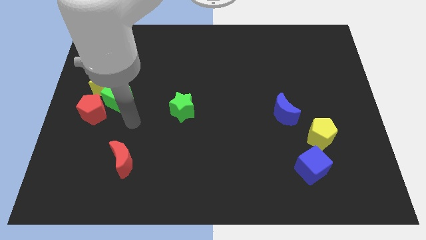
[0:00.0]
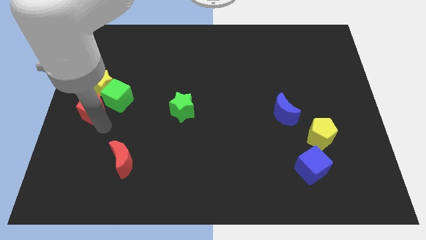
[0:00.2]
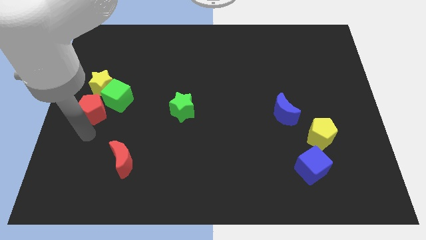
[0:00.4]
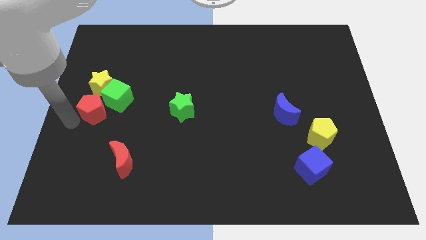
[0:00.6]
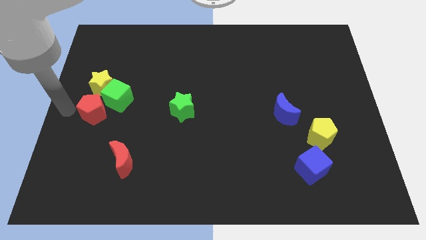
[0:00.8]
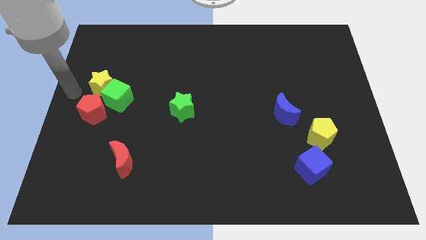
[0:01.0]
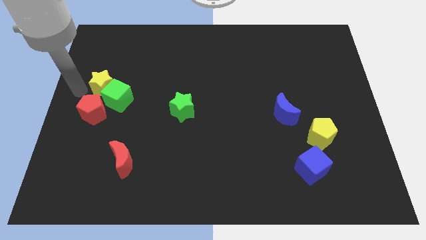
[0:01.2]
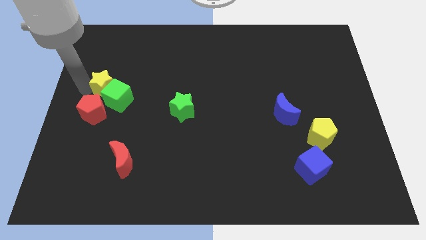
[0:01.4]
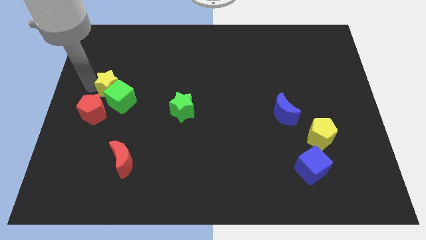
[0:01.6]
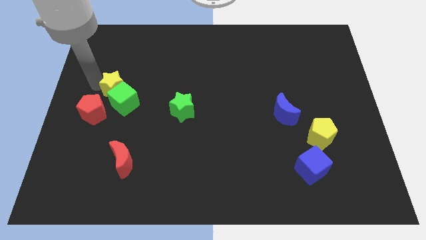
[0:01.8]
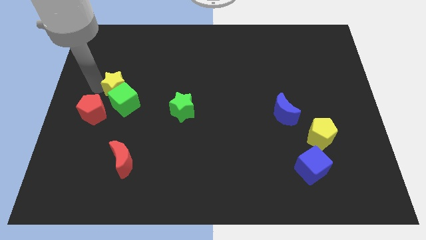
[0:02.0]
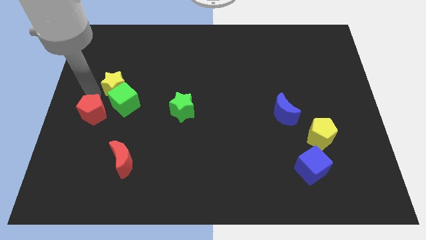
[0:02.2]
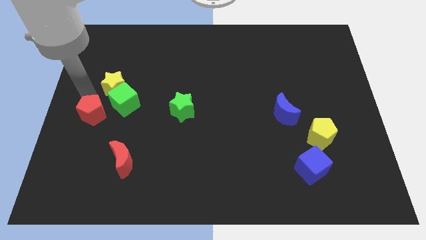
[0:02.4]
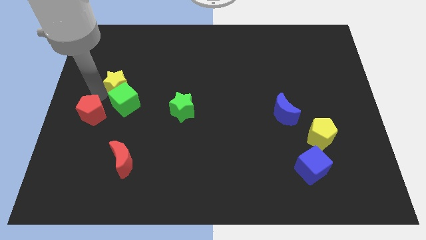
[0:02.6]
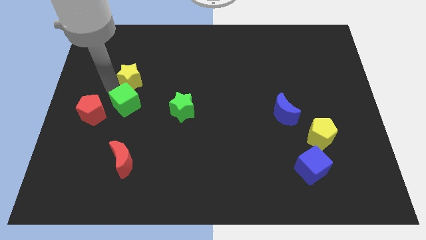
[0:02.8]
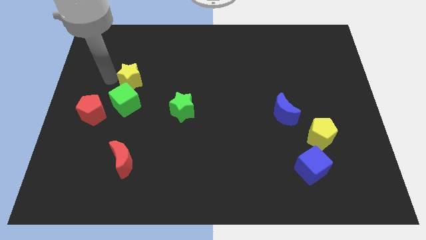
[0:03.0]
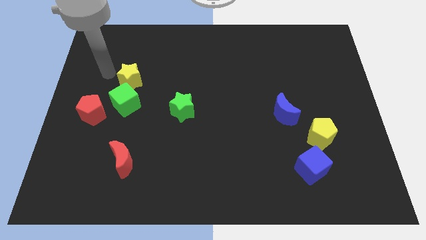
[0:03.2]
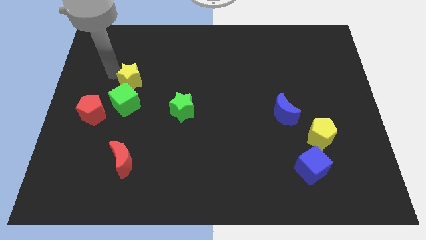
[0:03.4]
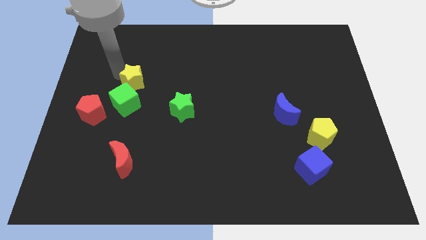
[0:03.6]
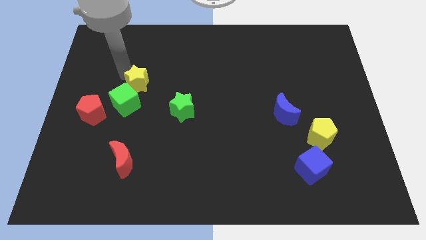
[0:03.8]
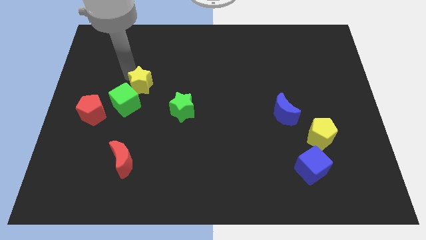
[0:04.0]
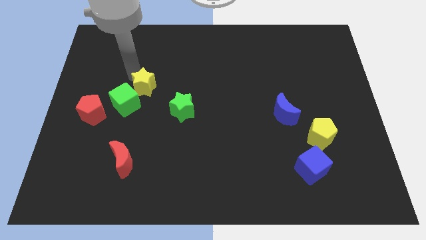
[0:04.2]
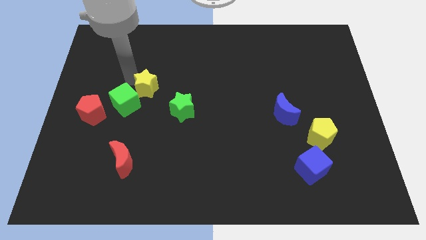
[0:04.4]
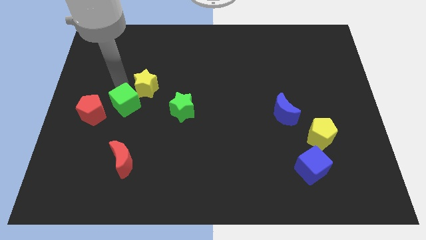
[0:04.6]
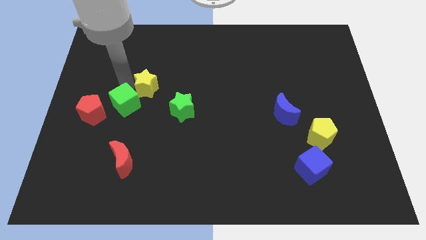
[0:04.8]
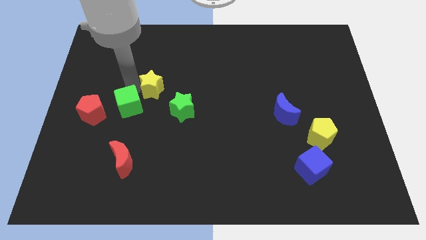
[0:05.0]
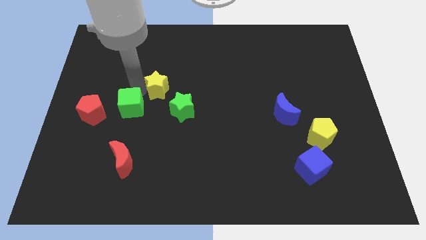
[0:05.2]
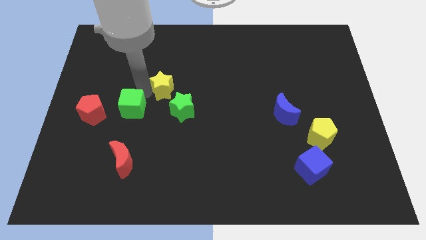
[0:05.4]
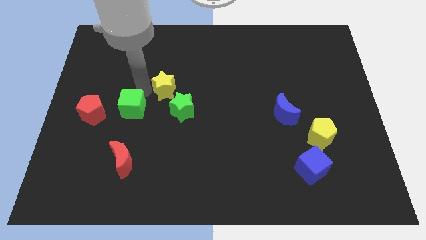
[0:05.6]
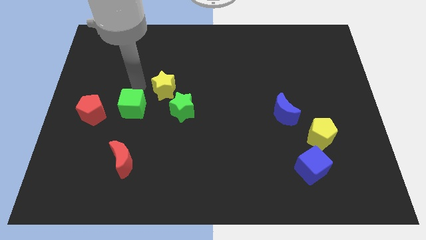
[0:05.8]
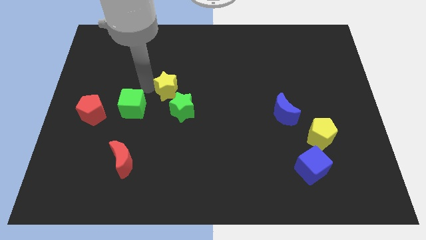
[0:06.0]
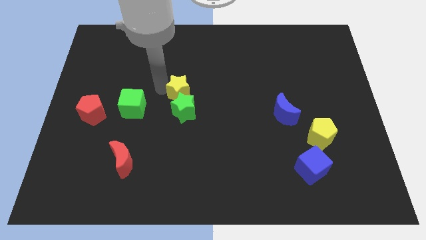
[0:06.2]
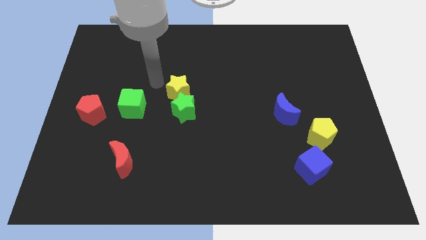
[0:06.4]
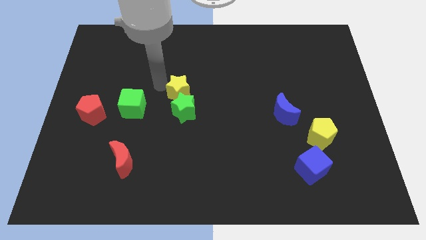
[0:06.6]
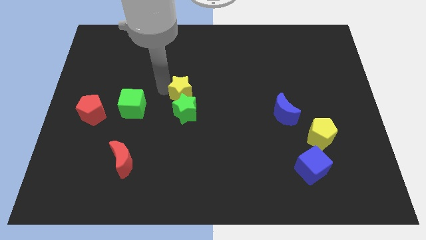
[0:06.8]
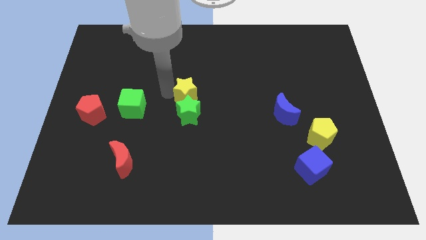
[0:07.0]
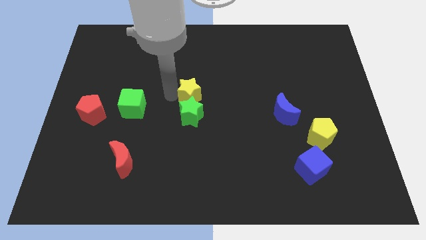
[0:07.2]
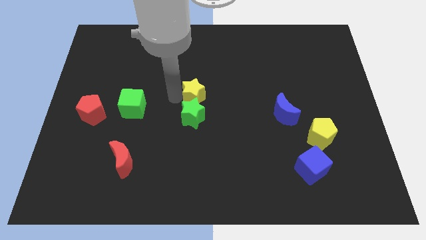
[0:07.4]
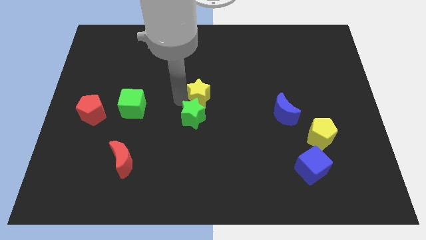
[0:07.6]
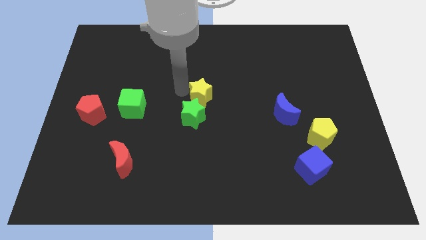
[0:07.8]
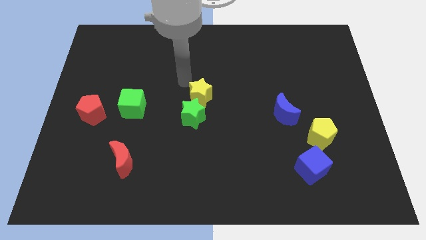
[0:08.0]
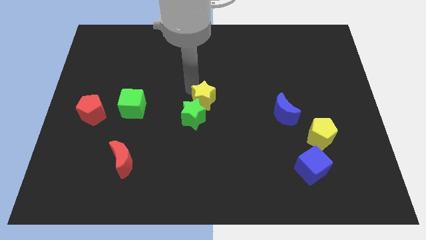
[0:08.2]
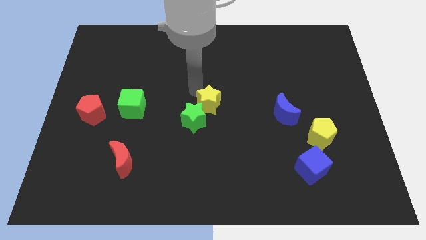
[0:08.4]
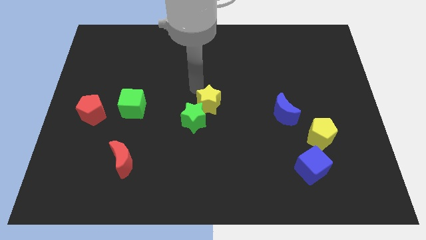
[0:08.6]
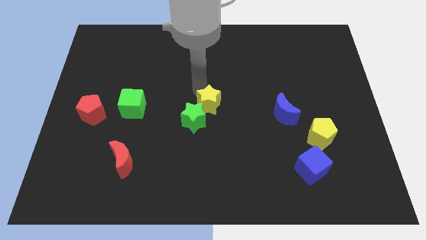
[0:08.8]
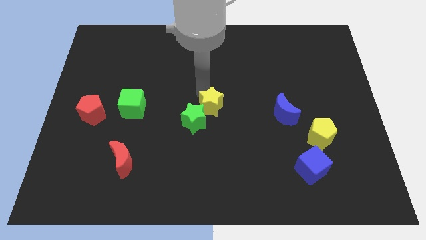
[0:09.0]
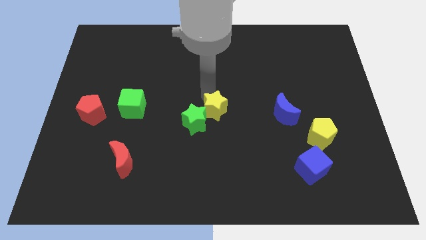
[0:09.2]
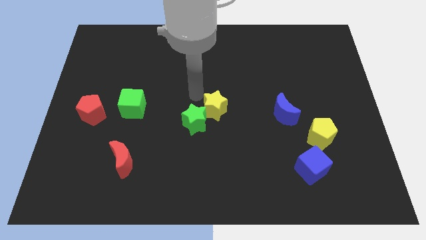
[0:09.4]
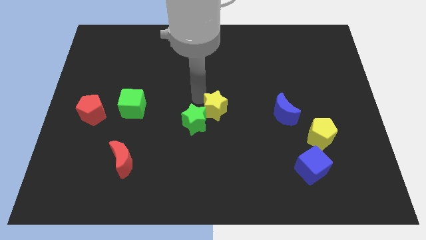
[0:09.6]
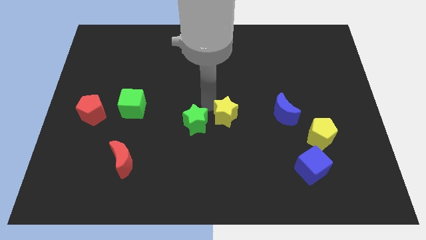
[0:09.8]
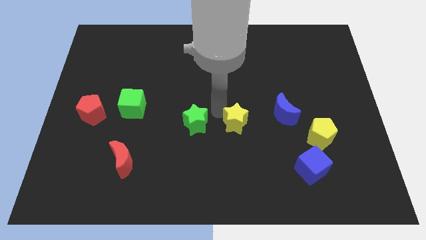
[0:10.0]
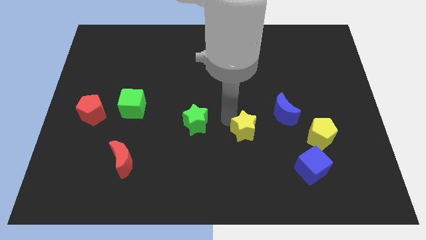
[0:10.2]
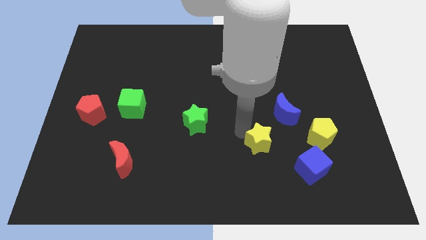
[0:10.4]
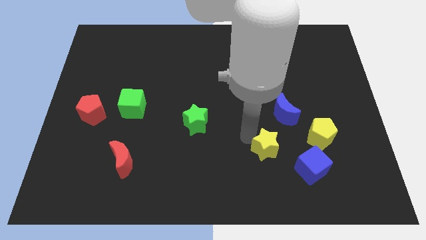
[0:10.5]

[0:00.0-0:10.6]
push the yellow star below the blue moon

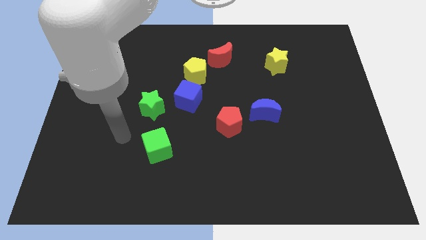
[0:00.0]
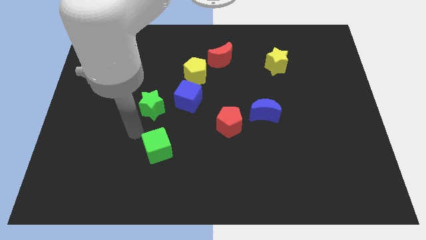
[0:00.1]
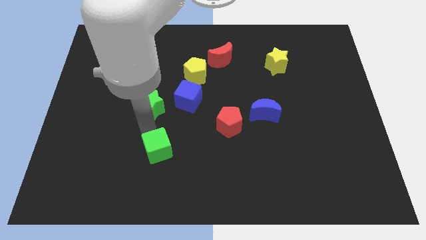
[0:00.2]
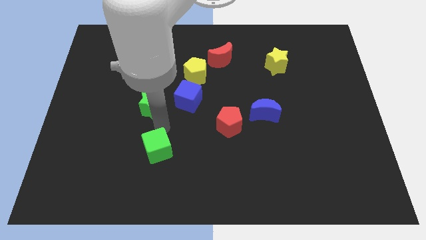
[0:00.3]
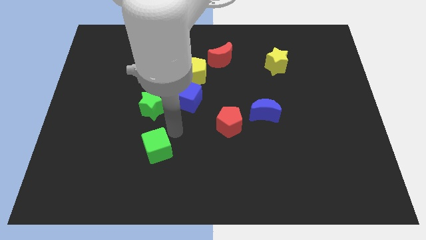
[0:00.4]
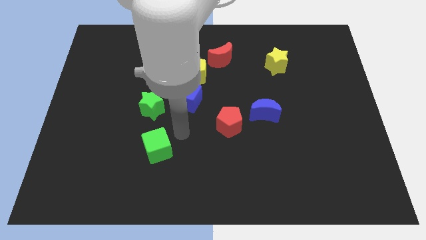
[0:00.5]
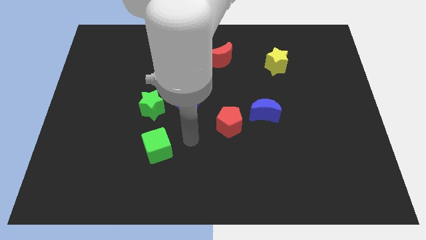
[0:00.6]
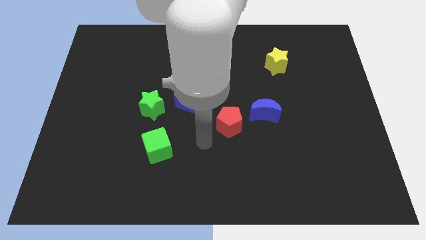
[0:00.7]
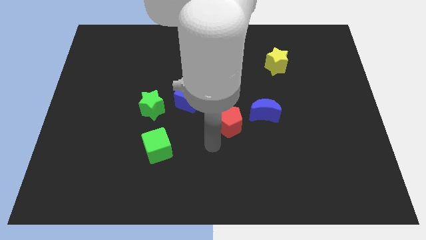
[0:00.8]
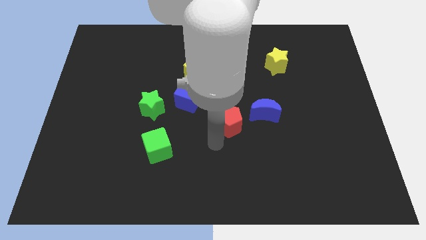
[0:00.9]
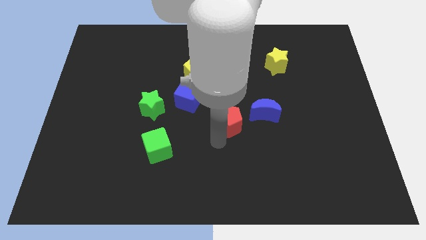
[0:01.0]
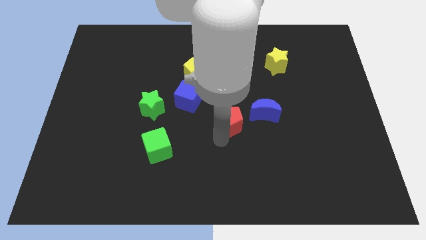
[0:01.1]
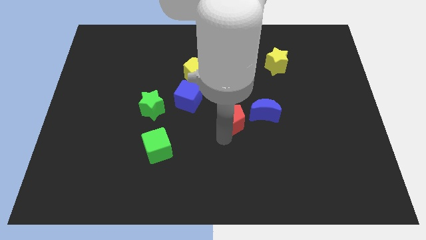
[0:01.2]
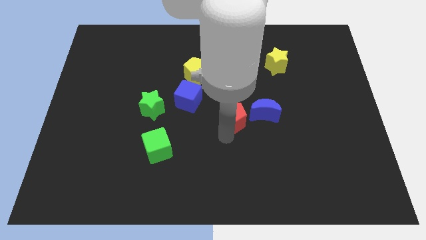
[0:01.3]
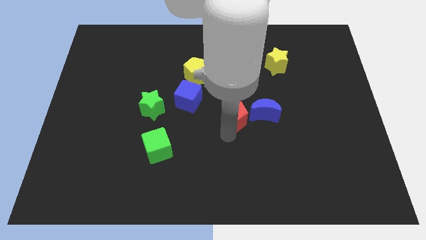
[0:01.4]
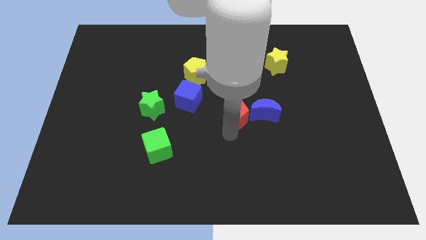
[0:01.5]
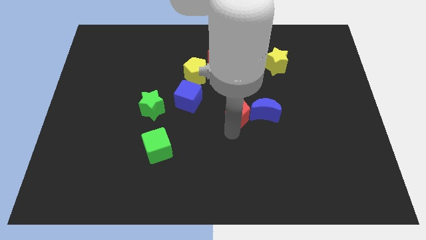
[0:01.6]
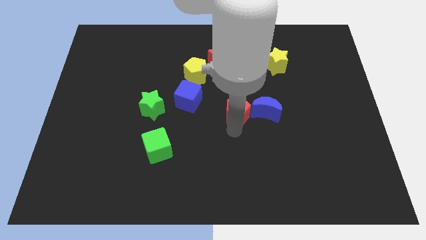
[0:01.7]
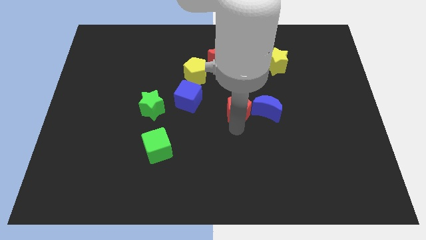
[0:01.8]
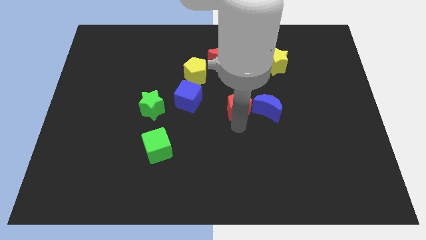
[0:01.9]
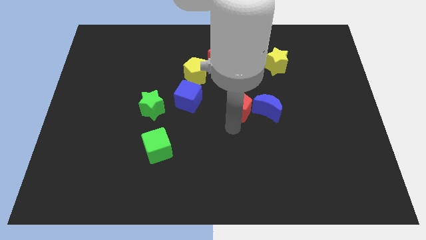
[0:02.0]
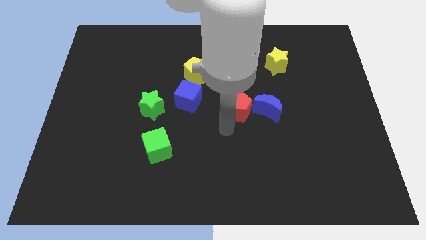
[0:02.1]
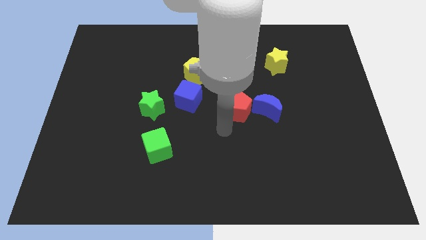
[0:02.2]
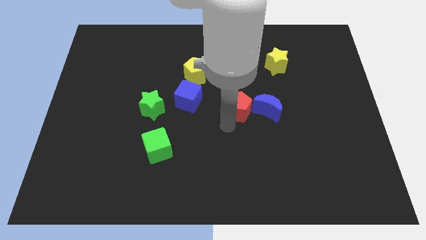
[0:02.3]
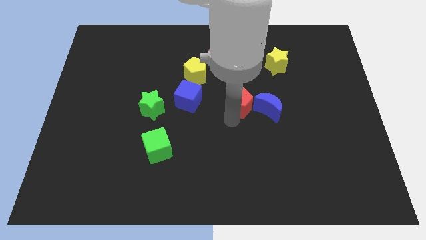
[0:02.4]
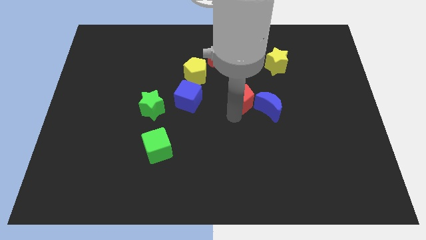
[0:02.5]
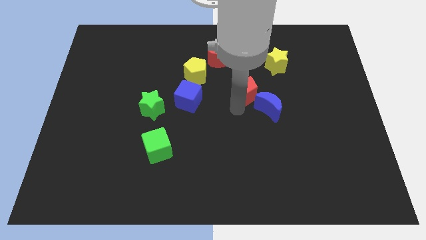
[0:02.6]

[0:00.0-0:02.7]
move the red pentagon to the bottom left of the yellow star
